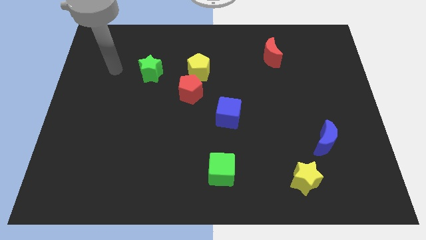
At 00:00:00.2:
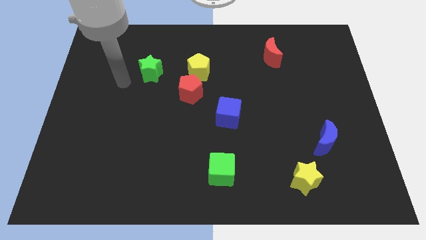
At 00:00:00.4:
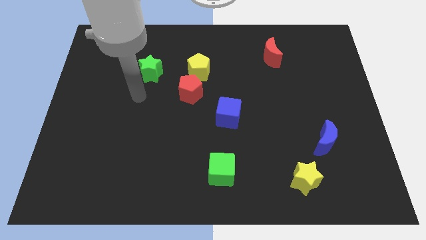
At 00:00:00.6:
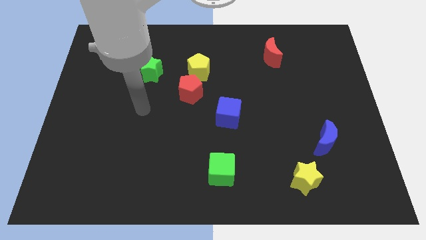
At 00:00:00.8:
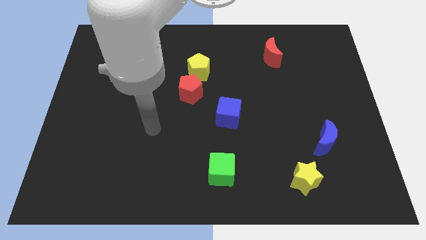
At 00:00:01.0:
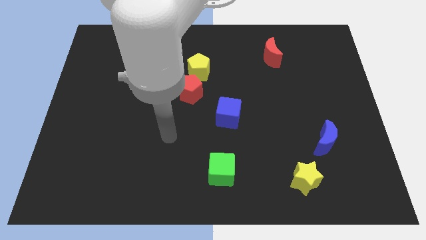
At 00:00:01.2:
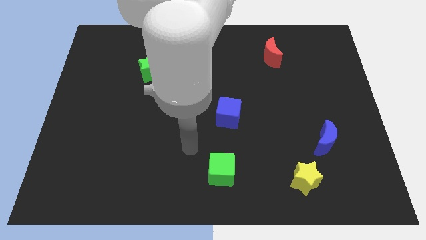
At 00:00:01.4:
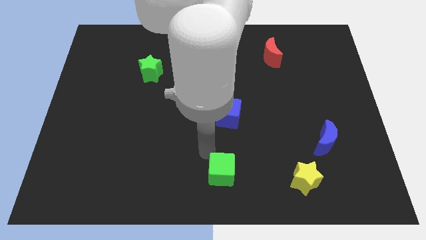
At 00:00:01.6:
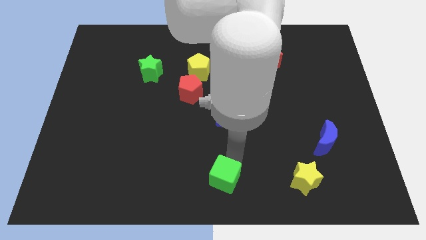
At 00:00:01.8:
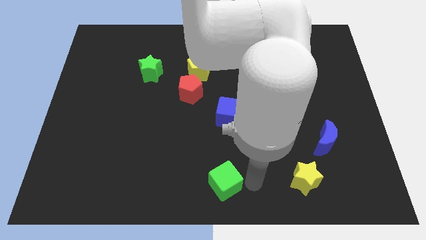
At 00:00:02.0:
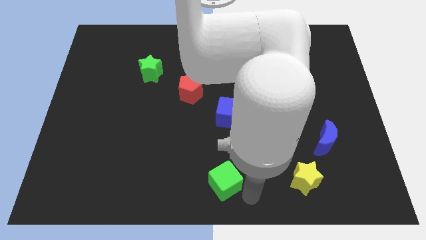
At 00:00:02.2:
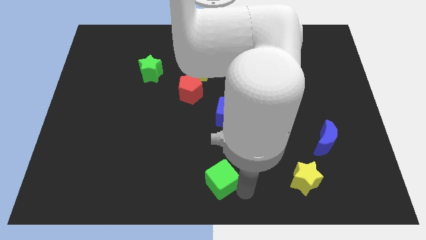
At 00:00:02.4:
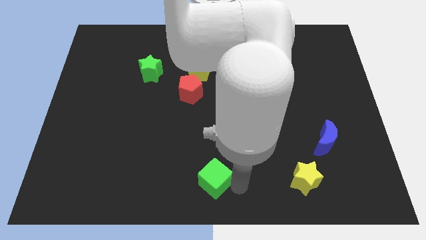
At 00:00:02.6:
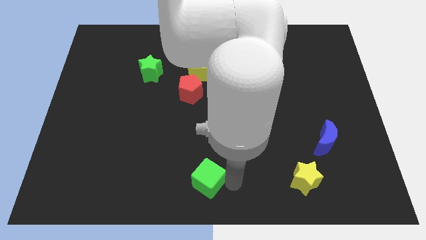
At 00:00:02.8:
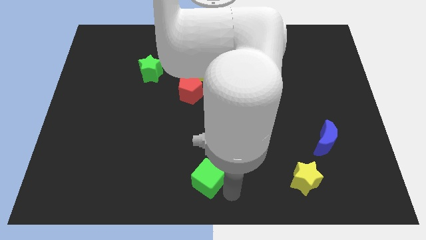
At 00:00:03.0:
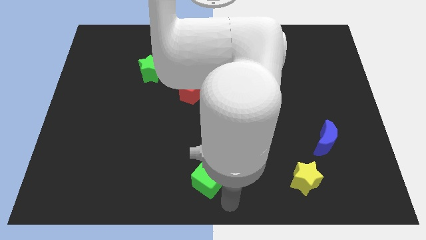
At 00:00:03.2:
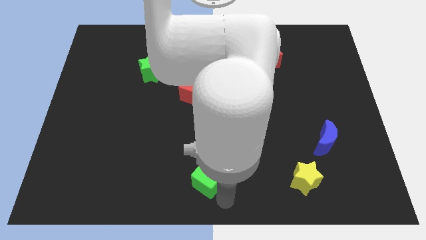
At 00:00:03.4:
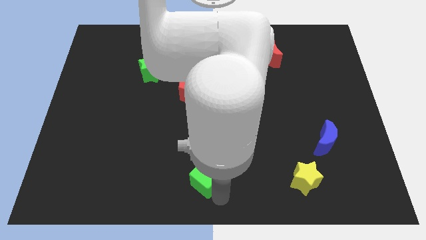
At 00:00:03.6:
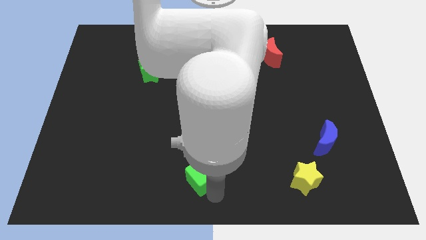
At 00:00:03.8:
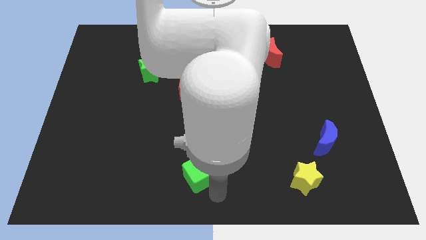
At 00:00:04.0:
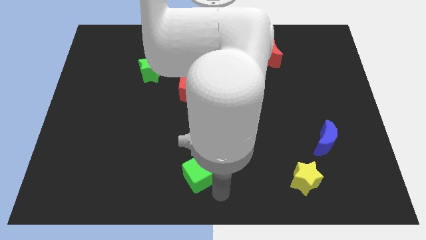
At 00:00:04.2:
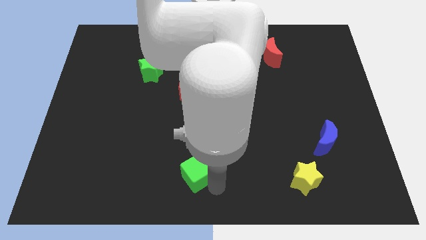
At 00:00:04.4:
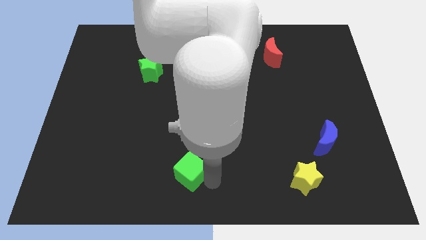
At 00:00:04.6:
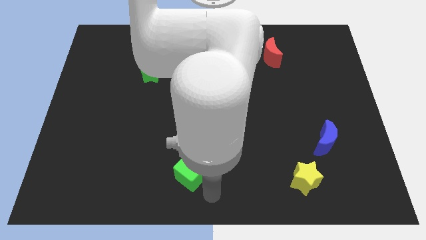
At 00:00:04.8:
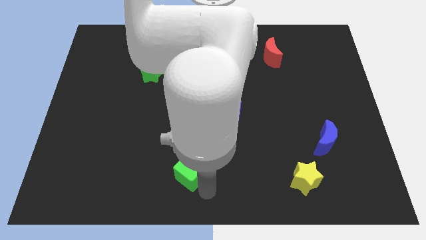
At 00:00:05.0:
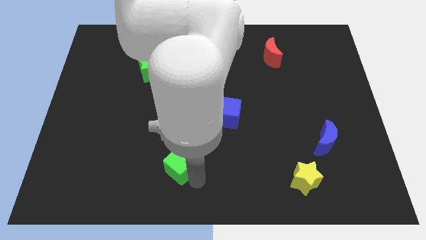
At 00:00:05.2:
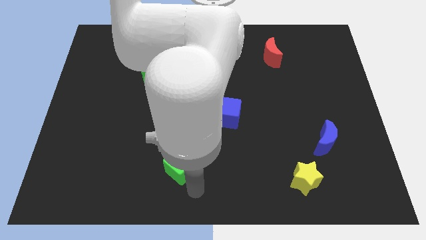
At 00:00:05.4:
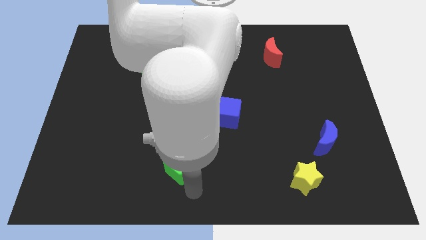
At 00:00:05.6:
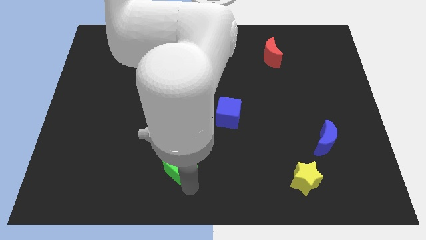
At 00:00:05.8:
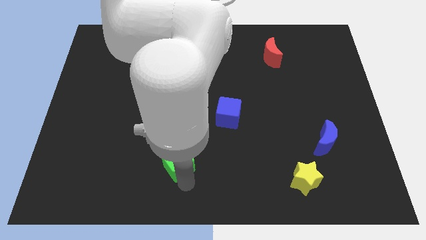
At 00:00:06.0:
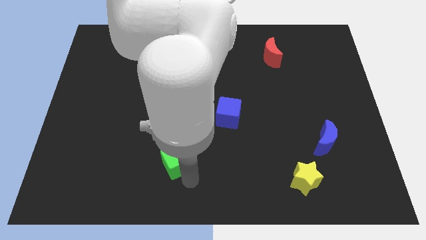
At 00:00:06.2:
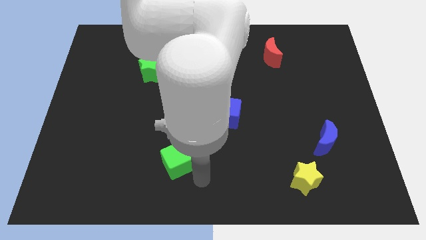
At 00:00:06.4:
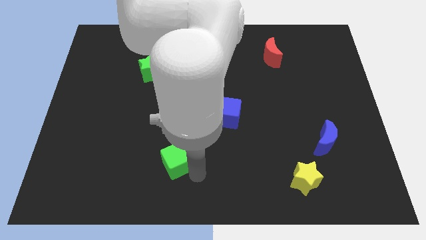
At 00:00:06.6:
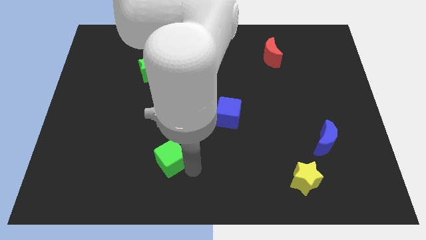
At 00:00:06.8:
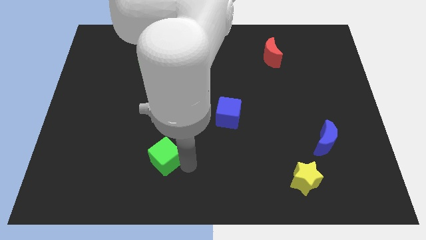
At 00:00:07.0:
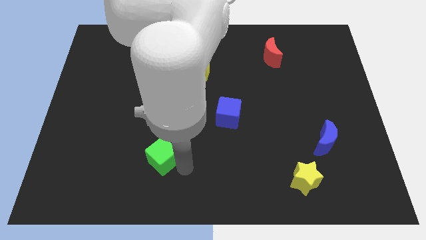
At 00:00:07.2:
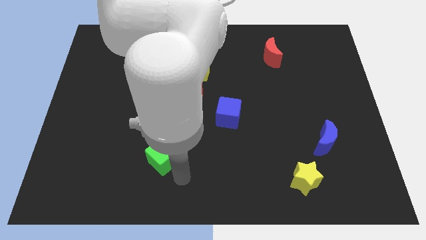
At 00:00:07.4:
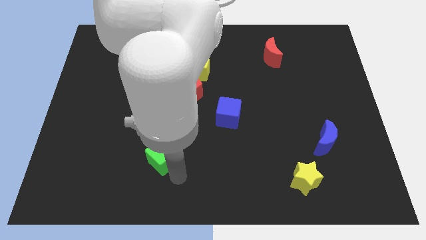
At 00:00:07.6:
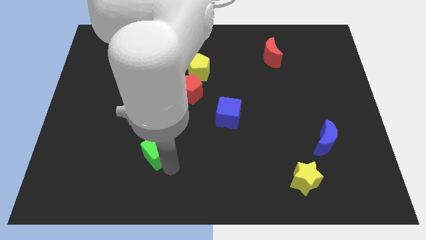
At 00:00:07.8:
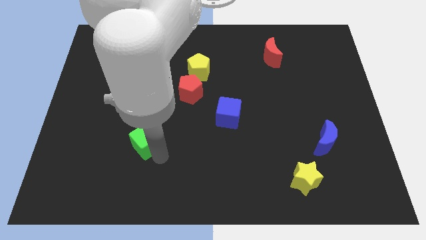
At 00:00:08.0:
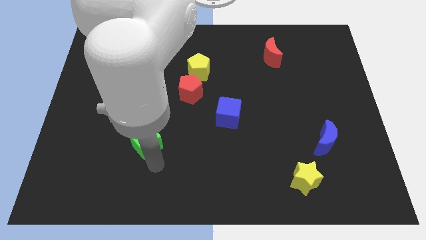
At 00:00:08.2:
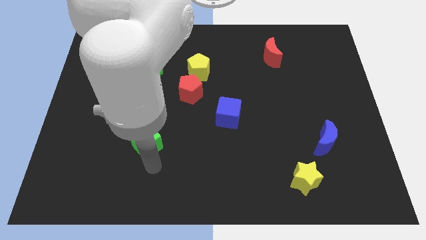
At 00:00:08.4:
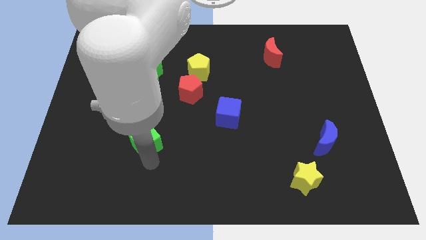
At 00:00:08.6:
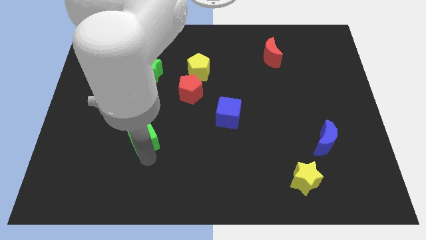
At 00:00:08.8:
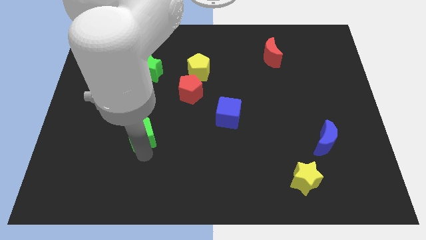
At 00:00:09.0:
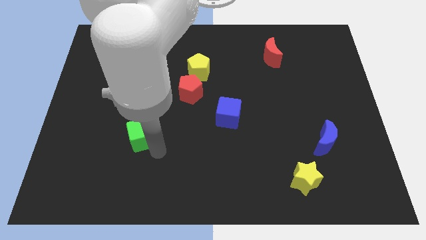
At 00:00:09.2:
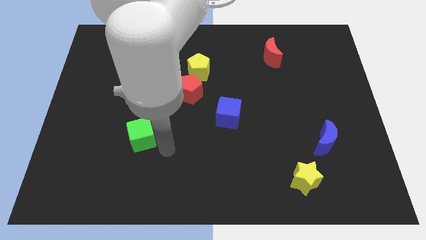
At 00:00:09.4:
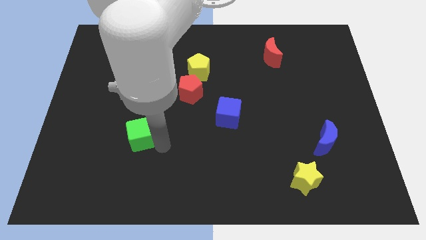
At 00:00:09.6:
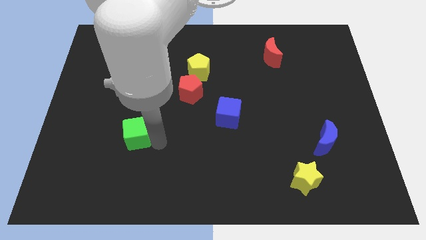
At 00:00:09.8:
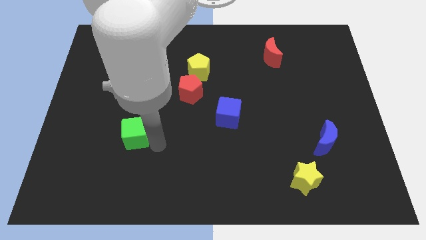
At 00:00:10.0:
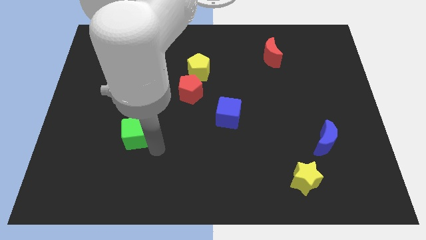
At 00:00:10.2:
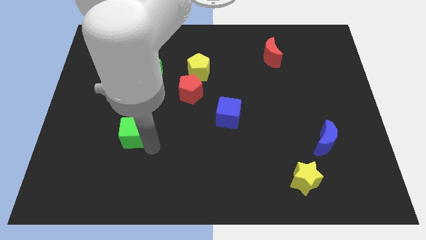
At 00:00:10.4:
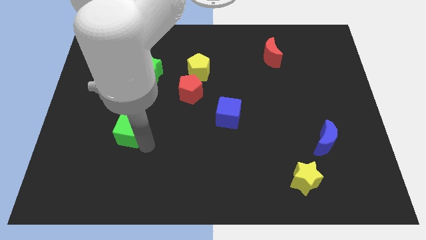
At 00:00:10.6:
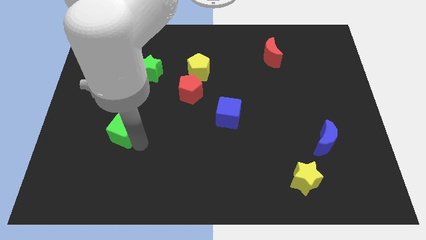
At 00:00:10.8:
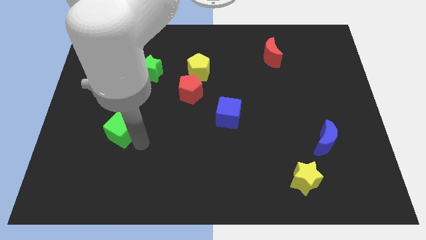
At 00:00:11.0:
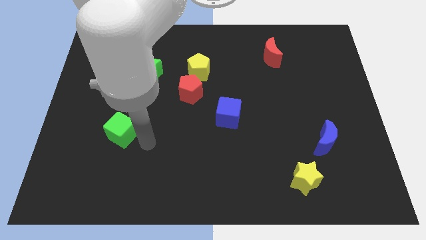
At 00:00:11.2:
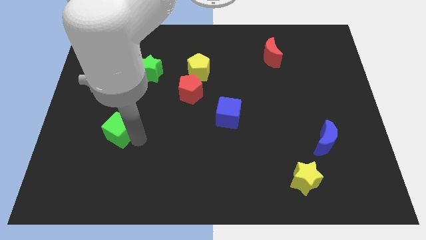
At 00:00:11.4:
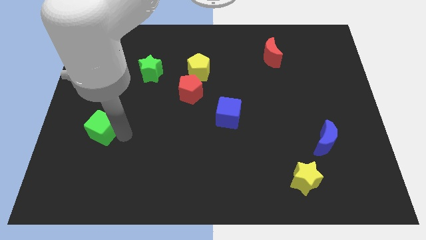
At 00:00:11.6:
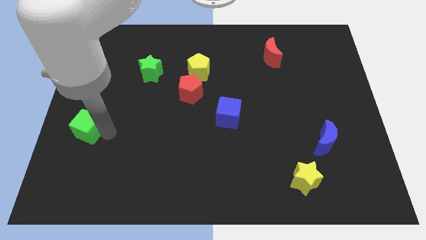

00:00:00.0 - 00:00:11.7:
push the green cube to the left side
